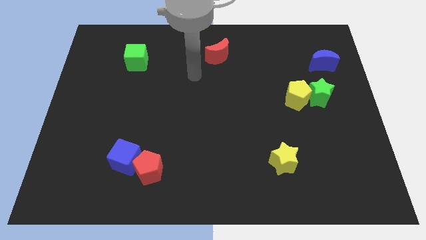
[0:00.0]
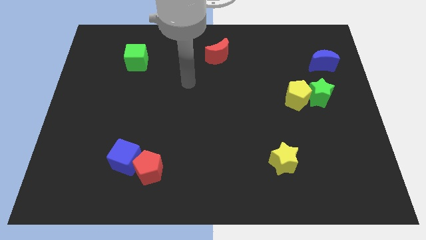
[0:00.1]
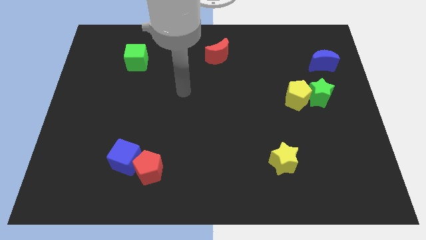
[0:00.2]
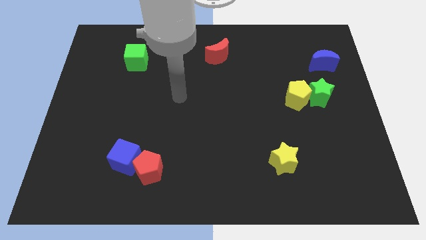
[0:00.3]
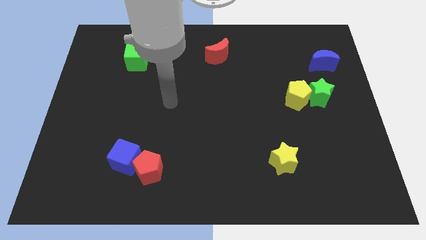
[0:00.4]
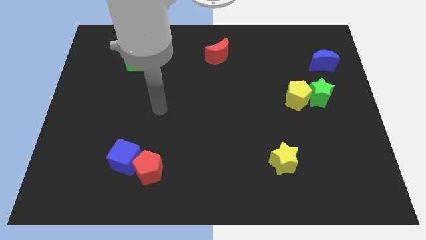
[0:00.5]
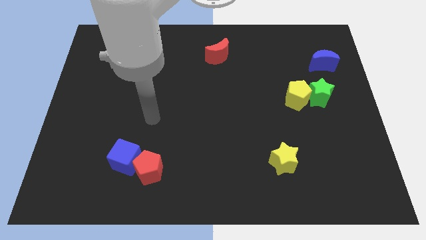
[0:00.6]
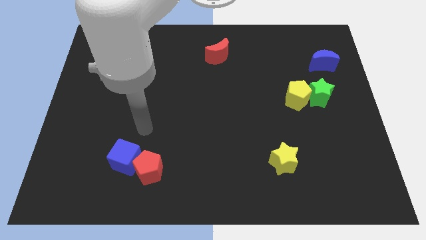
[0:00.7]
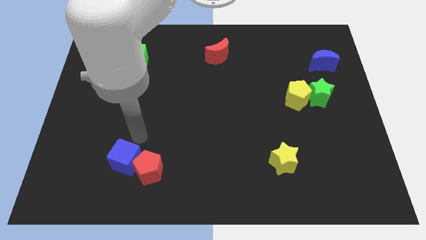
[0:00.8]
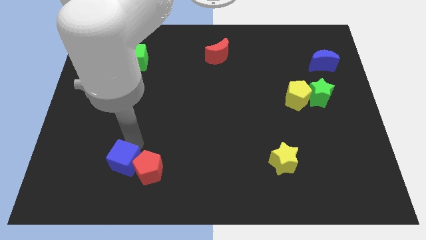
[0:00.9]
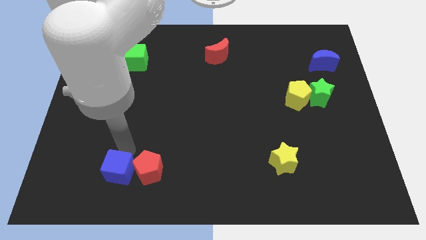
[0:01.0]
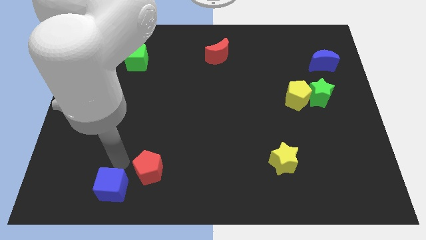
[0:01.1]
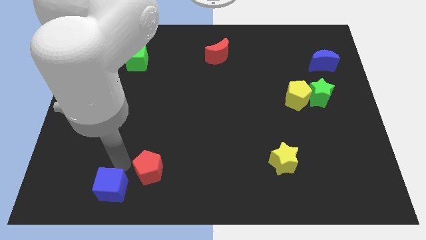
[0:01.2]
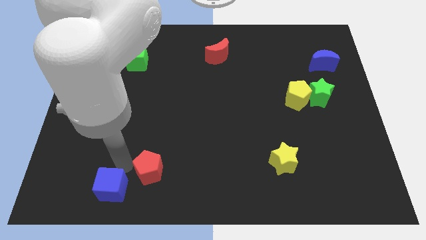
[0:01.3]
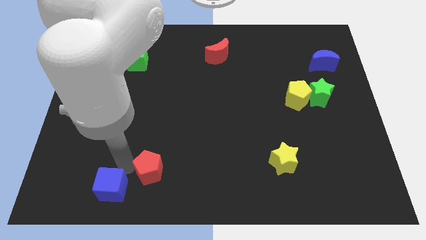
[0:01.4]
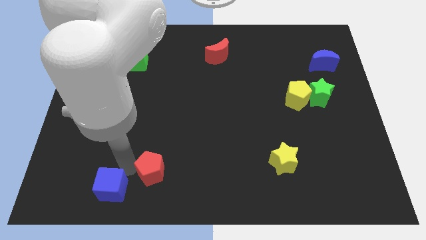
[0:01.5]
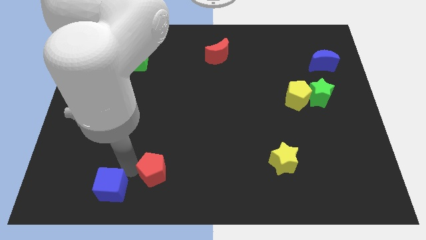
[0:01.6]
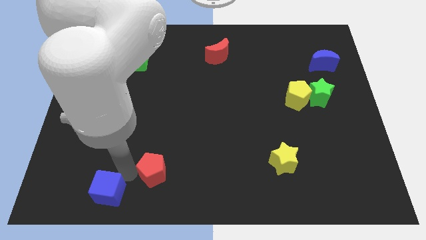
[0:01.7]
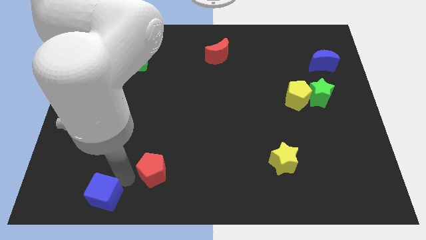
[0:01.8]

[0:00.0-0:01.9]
move the red pentagon away from the blue cube

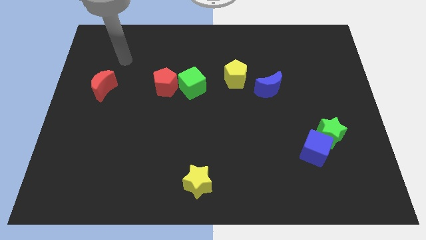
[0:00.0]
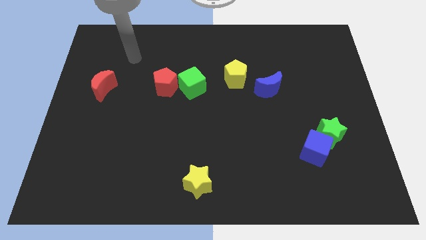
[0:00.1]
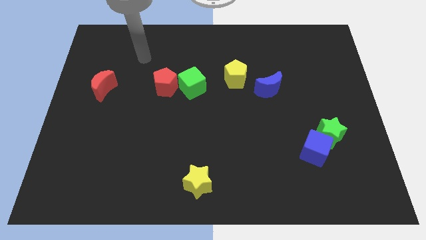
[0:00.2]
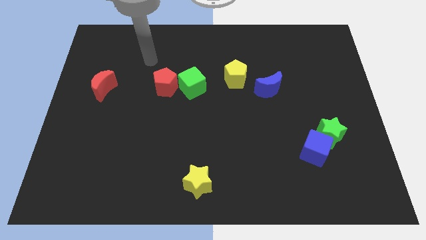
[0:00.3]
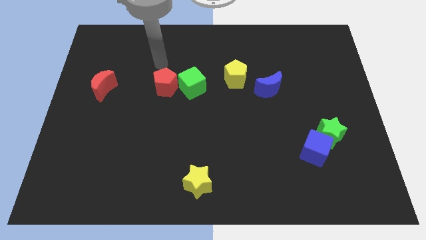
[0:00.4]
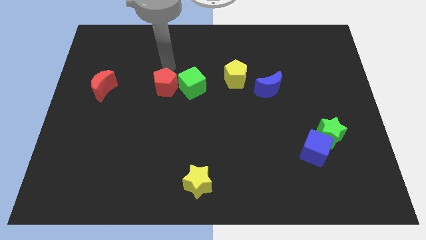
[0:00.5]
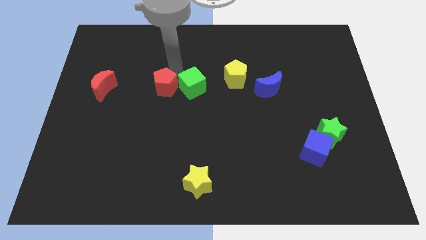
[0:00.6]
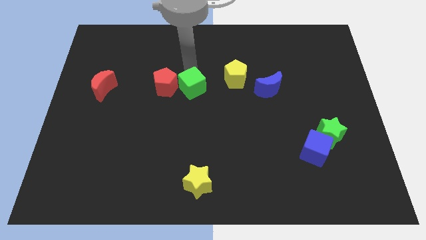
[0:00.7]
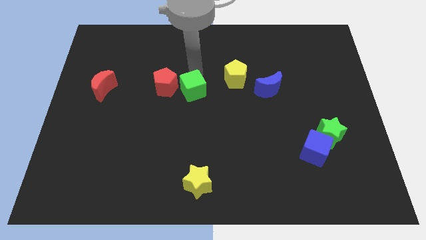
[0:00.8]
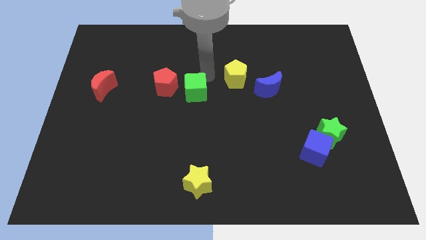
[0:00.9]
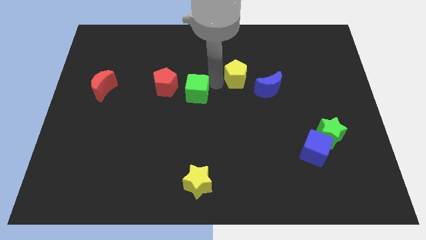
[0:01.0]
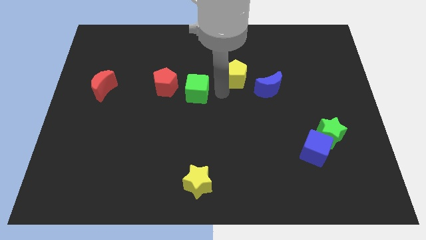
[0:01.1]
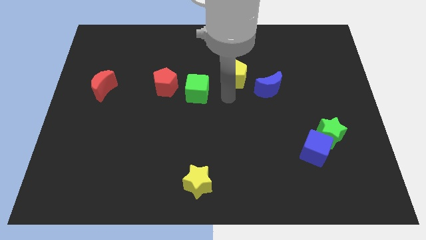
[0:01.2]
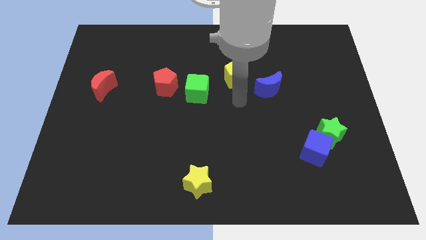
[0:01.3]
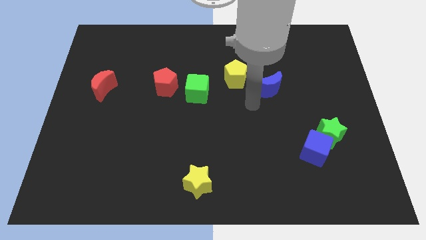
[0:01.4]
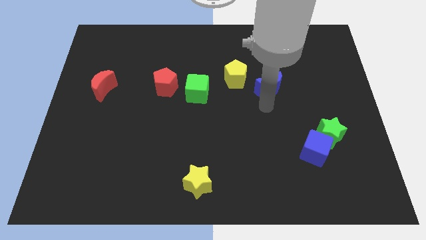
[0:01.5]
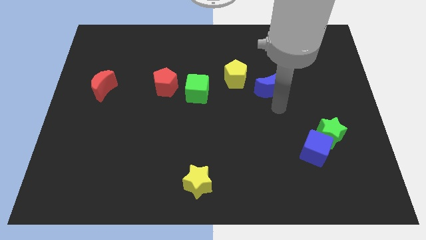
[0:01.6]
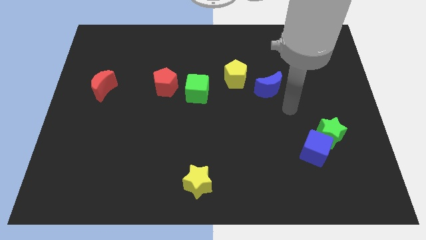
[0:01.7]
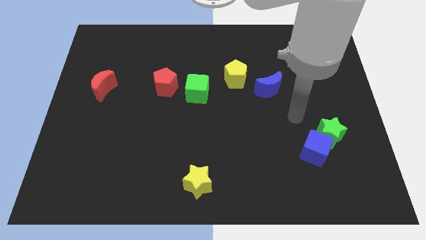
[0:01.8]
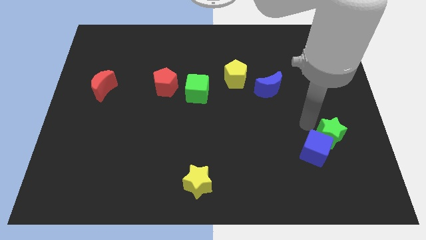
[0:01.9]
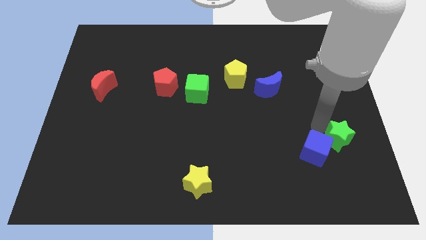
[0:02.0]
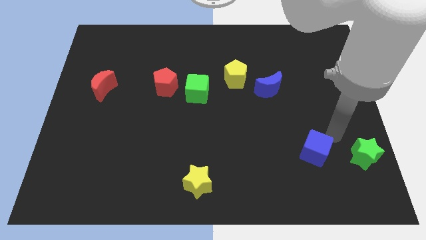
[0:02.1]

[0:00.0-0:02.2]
separate the blue cube from the green star

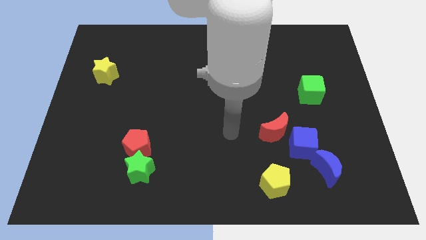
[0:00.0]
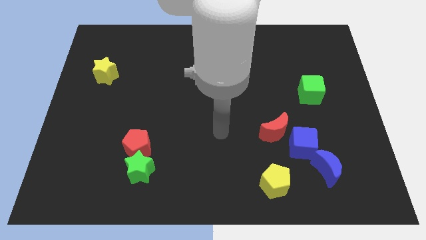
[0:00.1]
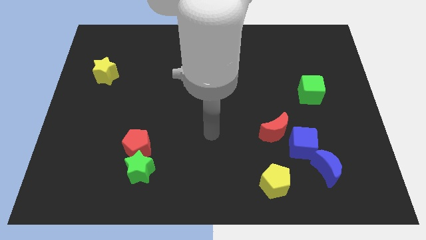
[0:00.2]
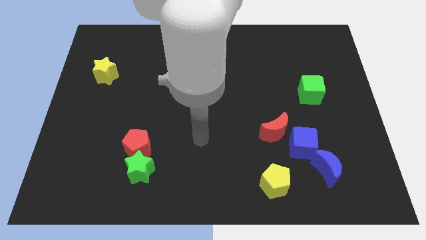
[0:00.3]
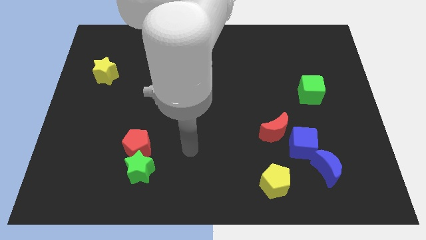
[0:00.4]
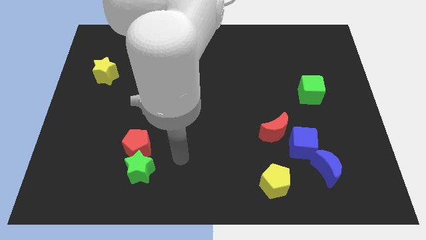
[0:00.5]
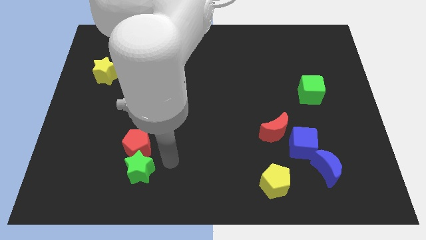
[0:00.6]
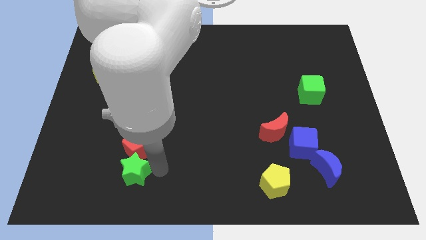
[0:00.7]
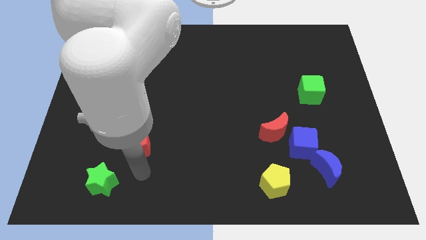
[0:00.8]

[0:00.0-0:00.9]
move the red pentagon away from the green star

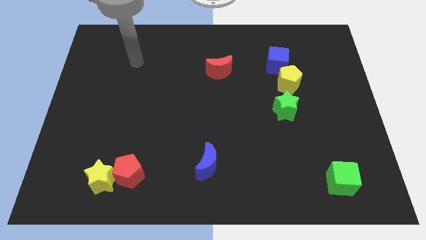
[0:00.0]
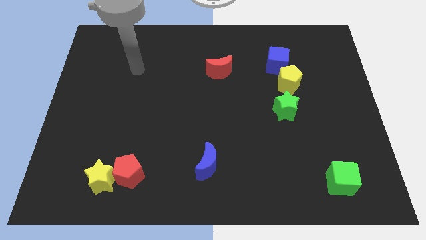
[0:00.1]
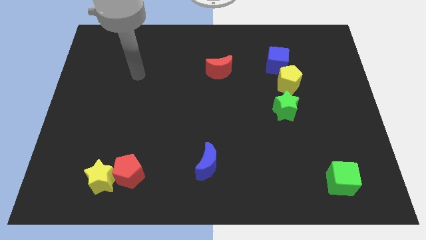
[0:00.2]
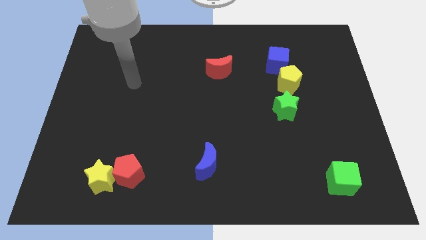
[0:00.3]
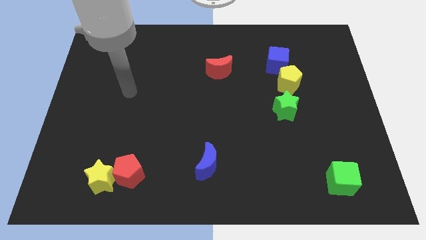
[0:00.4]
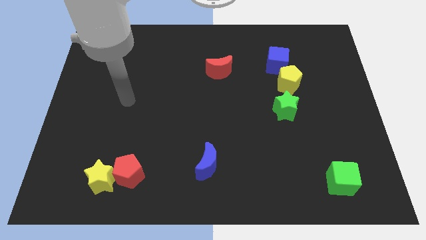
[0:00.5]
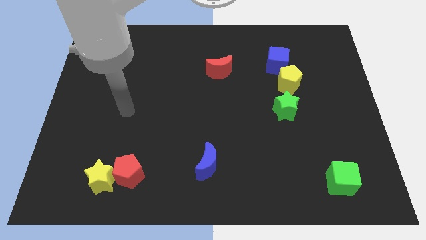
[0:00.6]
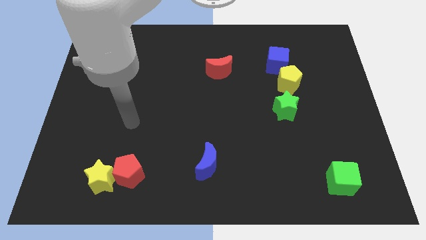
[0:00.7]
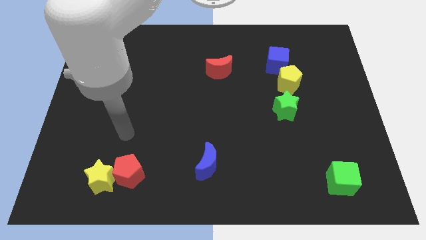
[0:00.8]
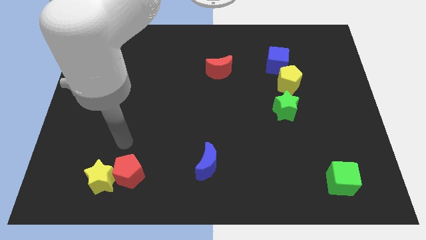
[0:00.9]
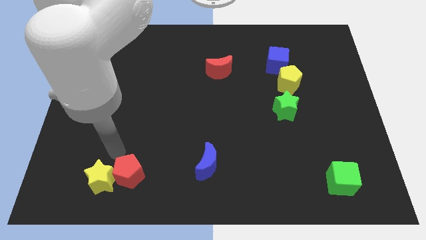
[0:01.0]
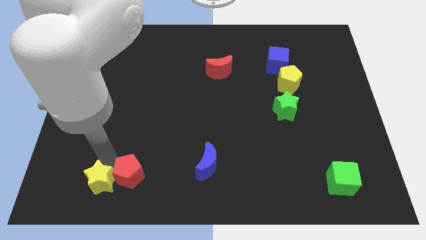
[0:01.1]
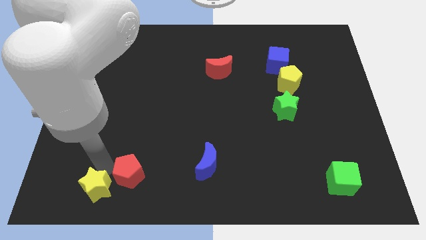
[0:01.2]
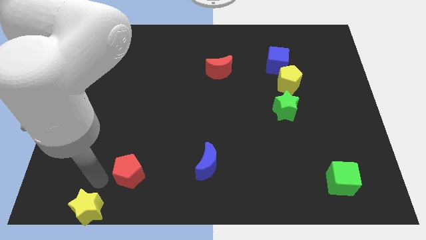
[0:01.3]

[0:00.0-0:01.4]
move the red pentagon away from the yellow star

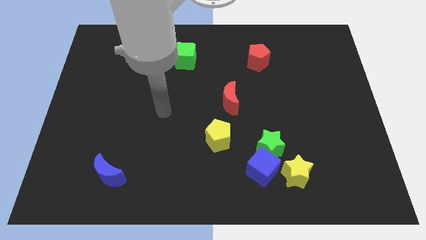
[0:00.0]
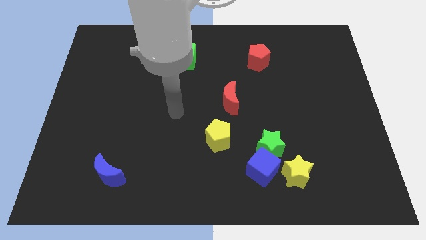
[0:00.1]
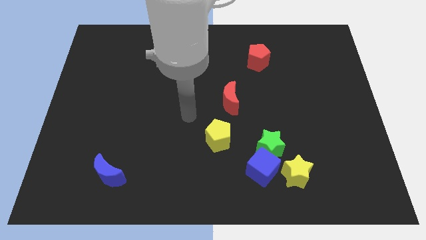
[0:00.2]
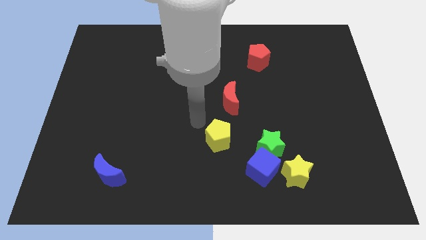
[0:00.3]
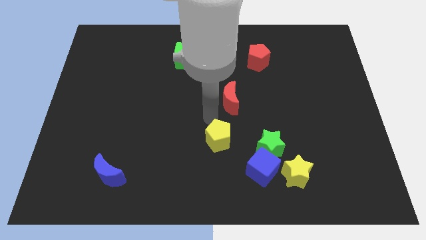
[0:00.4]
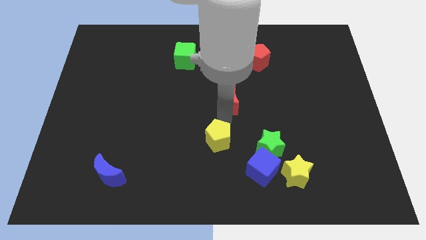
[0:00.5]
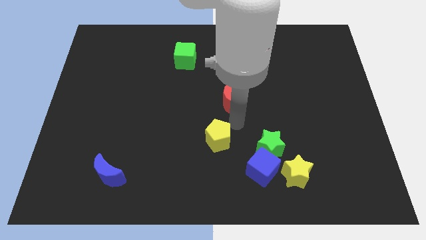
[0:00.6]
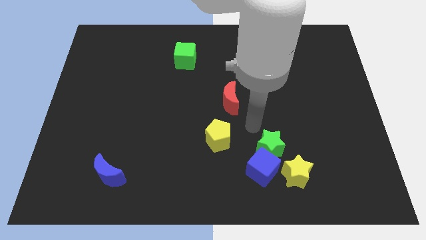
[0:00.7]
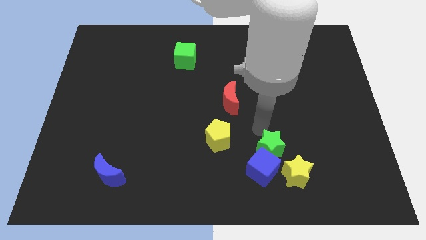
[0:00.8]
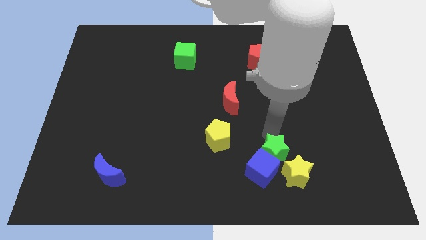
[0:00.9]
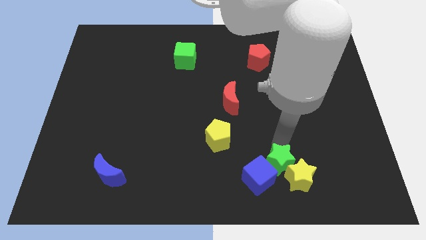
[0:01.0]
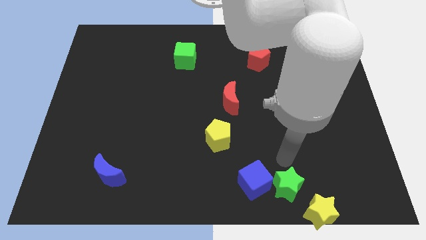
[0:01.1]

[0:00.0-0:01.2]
separate the blue cube from the green star and yellow star

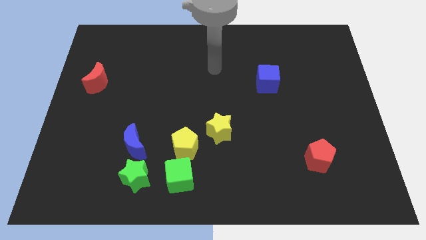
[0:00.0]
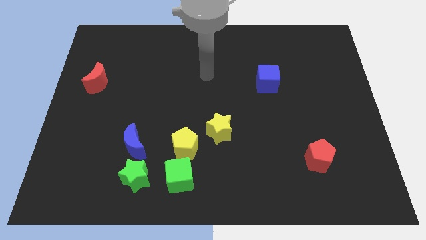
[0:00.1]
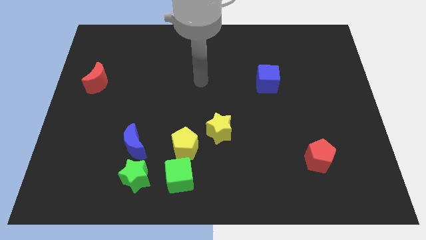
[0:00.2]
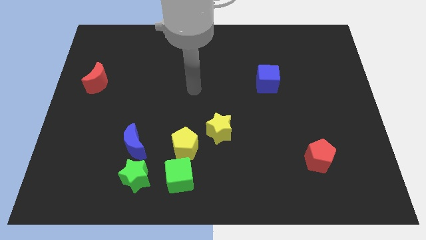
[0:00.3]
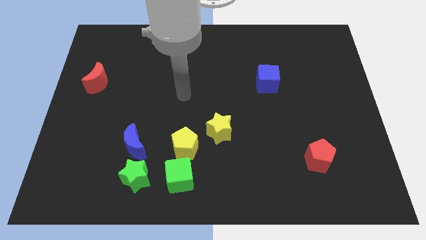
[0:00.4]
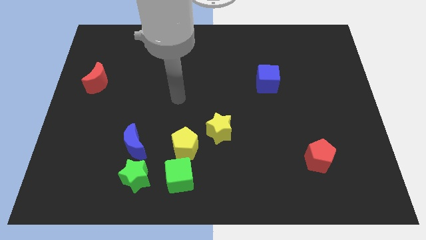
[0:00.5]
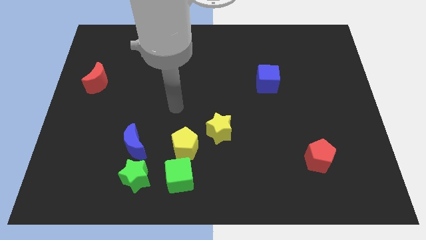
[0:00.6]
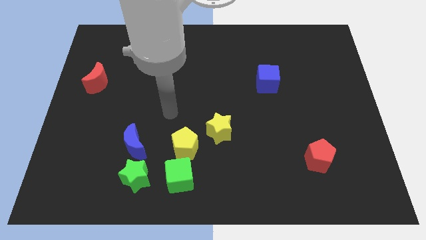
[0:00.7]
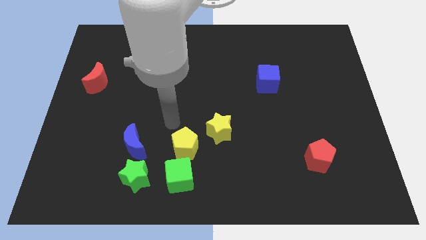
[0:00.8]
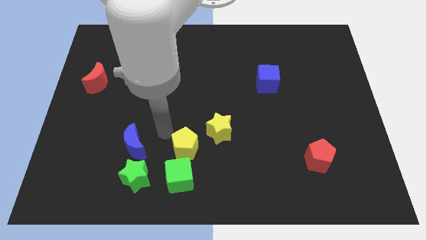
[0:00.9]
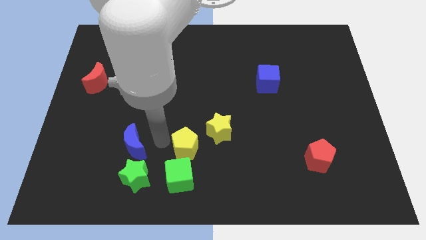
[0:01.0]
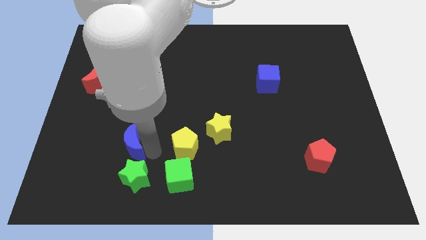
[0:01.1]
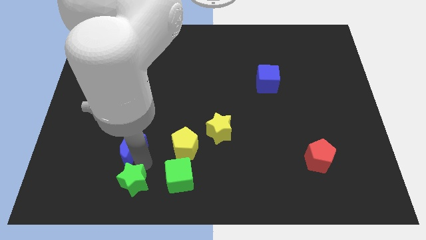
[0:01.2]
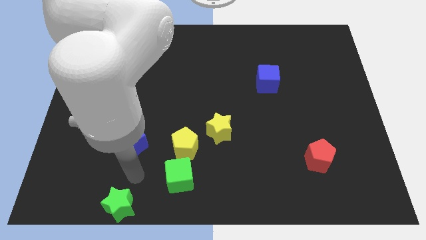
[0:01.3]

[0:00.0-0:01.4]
separate the blue moon from the green star

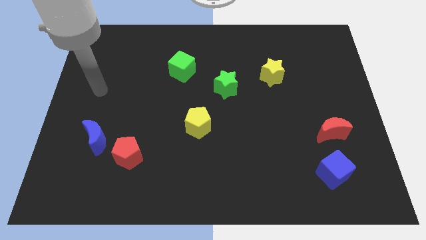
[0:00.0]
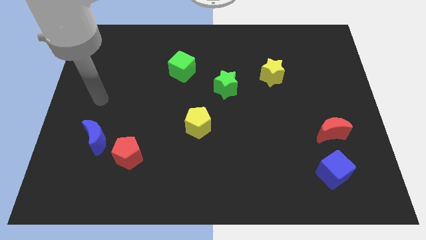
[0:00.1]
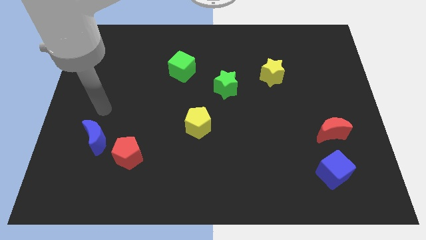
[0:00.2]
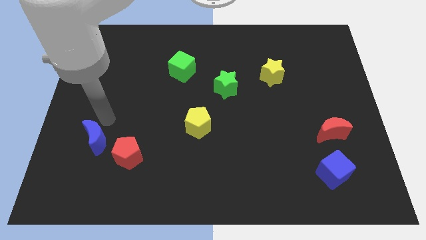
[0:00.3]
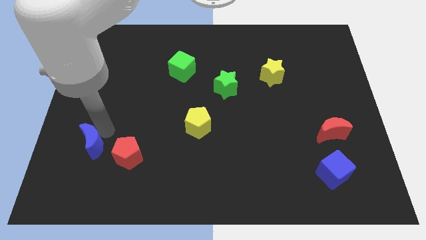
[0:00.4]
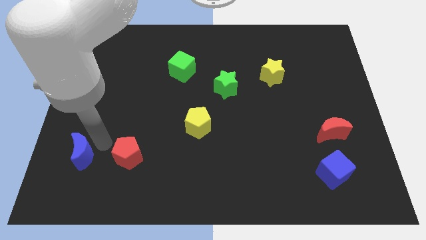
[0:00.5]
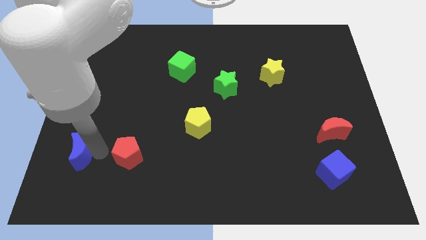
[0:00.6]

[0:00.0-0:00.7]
separate the red pentagon from the blue moon
